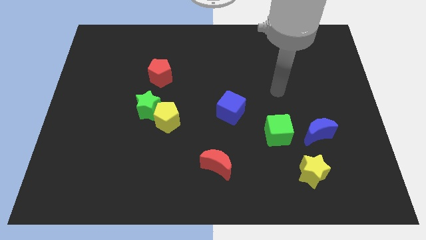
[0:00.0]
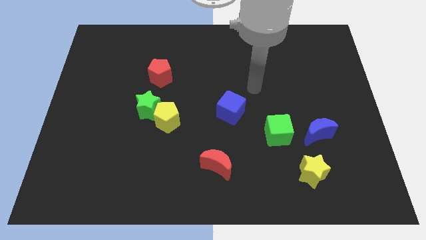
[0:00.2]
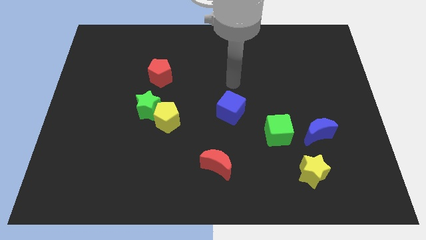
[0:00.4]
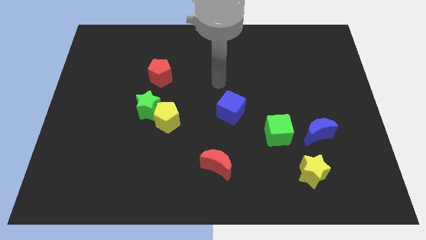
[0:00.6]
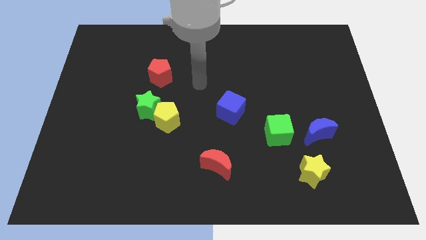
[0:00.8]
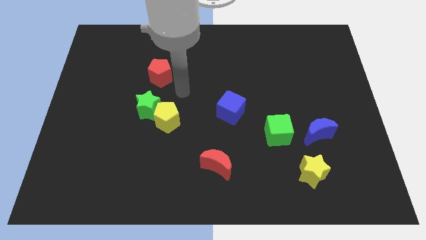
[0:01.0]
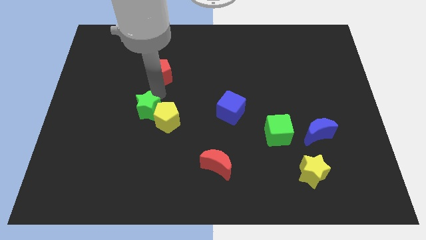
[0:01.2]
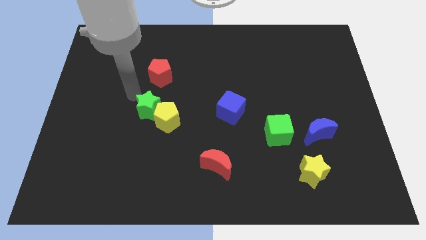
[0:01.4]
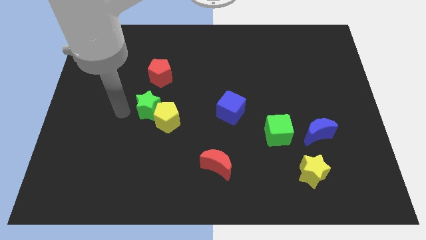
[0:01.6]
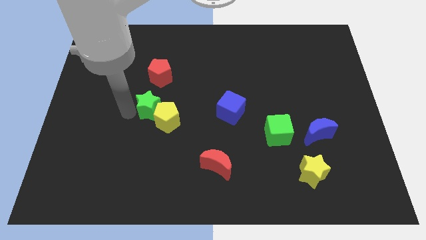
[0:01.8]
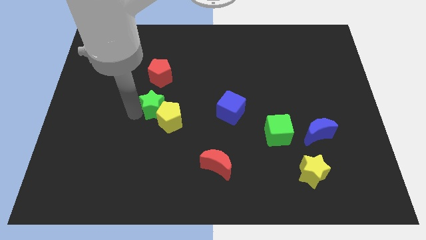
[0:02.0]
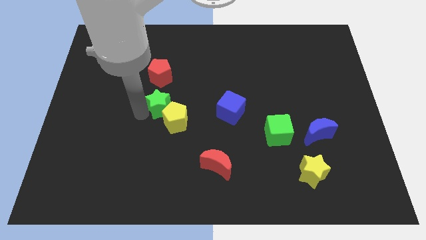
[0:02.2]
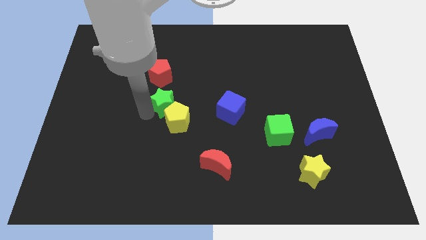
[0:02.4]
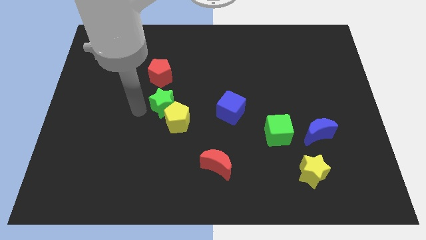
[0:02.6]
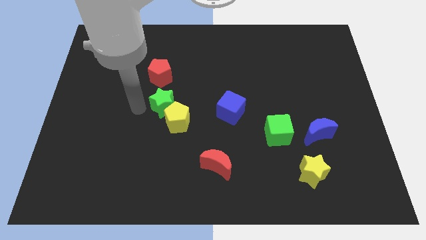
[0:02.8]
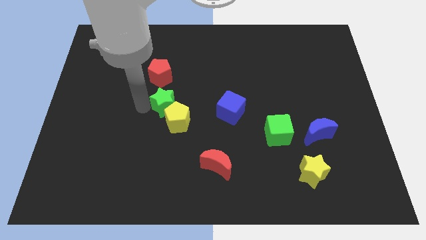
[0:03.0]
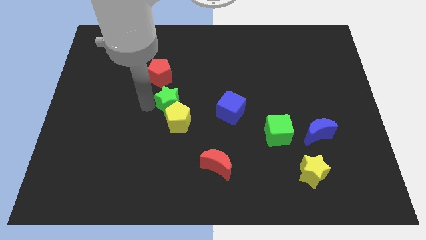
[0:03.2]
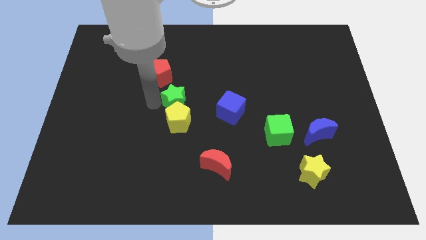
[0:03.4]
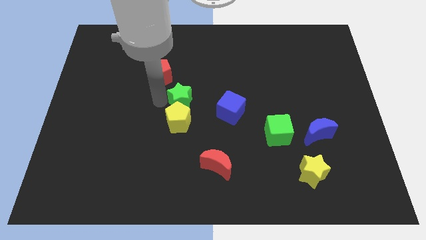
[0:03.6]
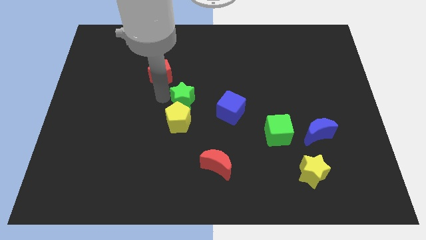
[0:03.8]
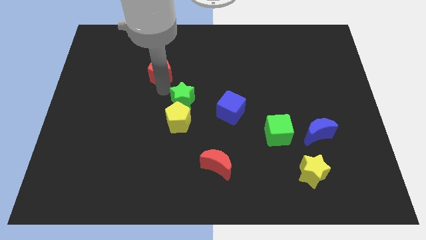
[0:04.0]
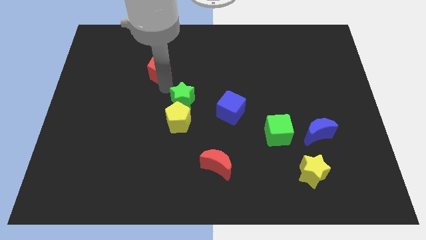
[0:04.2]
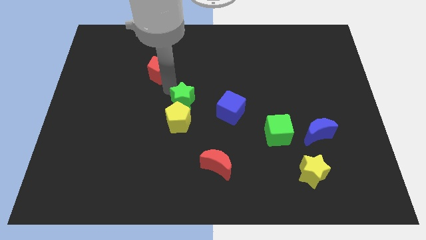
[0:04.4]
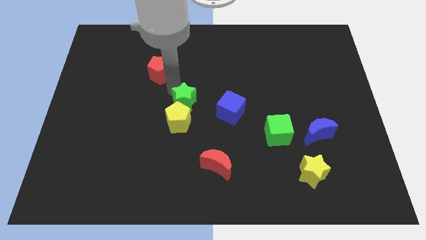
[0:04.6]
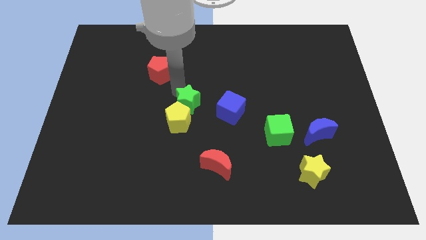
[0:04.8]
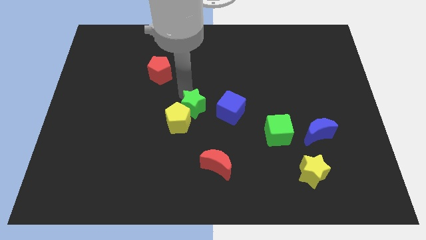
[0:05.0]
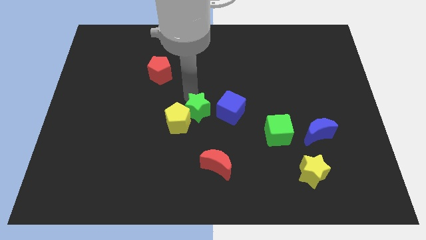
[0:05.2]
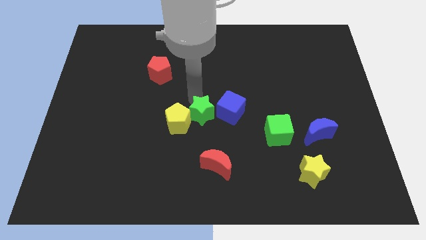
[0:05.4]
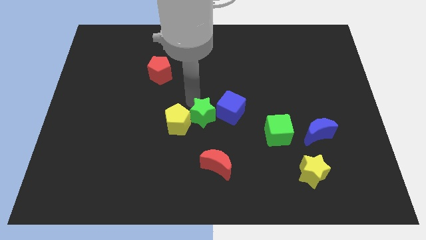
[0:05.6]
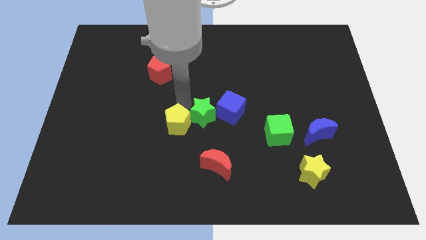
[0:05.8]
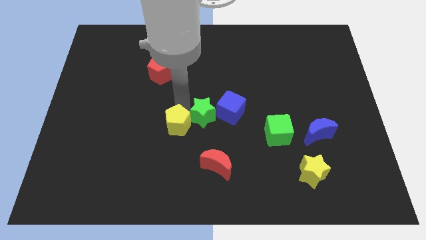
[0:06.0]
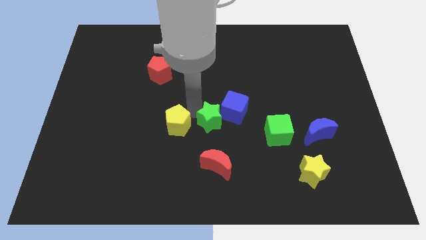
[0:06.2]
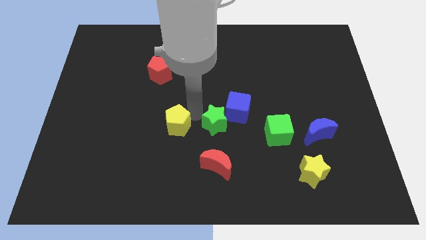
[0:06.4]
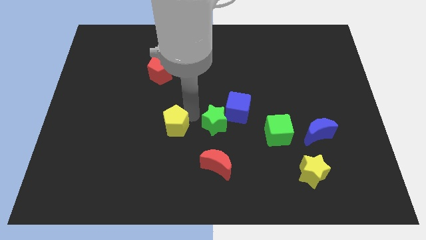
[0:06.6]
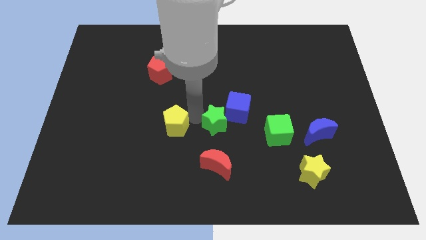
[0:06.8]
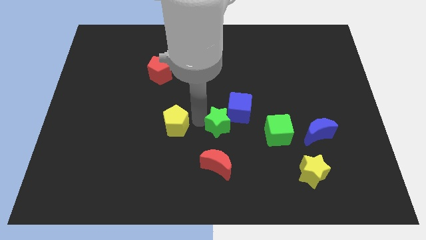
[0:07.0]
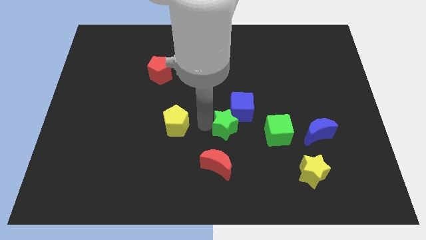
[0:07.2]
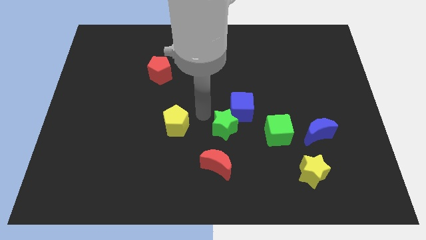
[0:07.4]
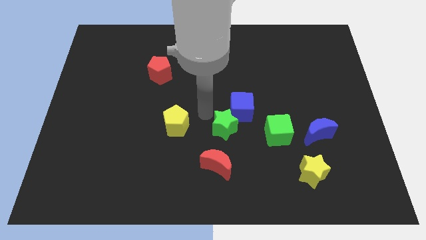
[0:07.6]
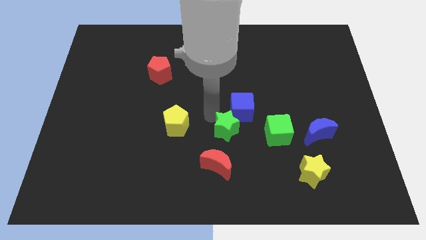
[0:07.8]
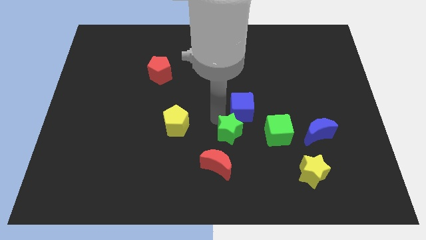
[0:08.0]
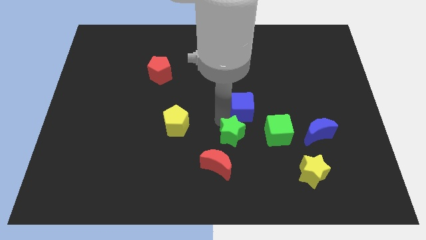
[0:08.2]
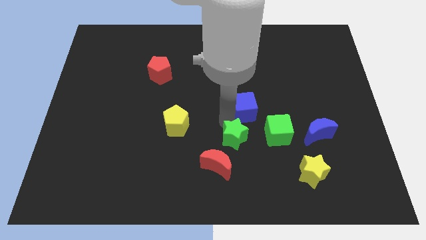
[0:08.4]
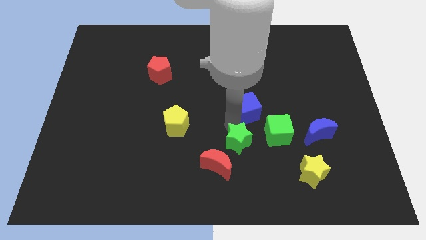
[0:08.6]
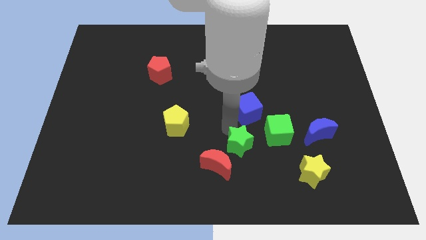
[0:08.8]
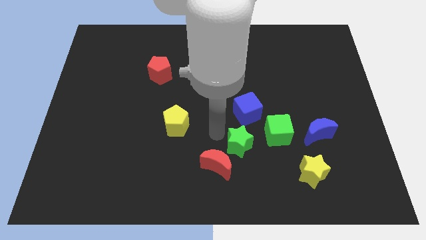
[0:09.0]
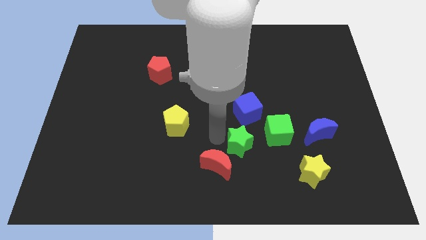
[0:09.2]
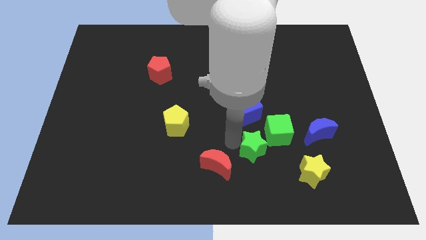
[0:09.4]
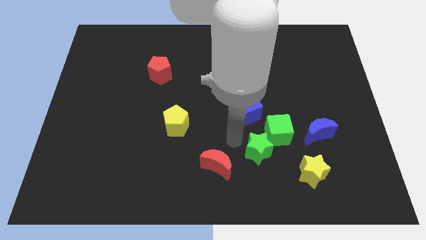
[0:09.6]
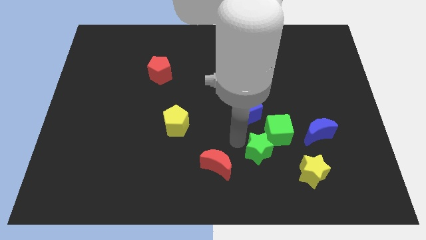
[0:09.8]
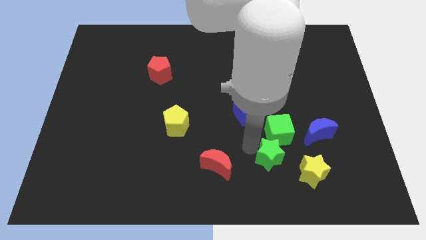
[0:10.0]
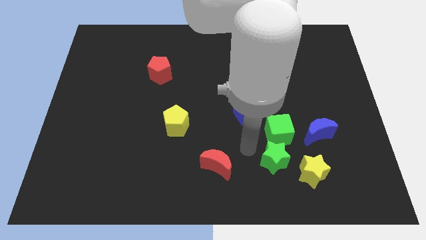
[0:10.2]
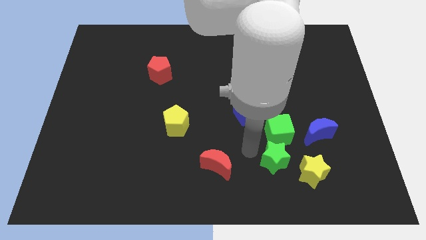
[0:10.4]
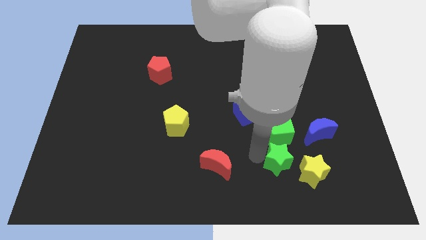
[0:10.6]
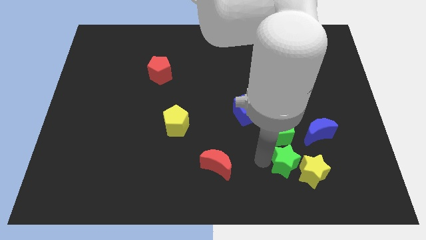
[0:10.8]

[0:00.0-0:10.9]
push the green star next to the yellow star

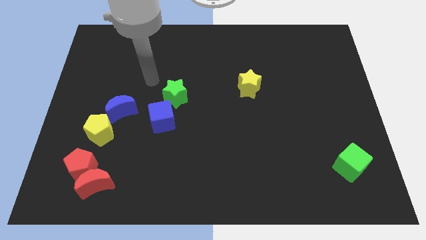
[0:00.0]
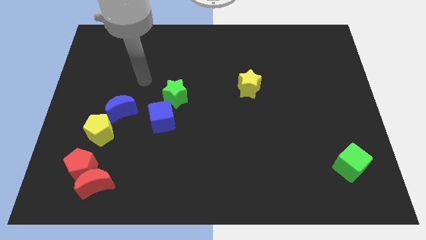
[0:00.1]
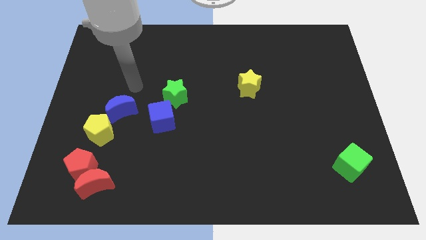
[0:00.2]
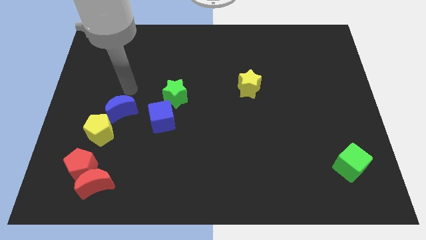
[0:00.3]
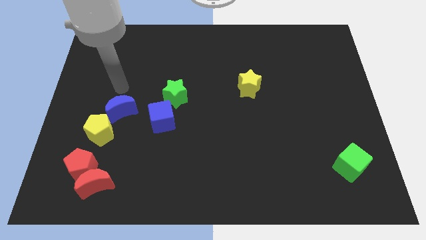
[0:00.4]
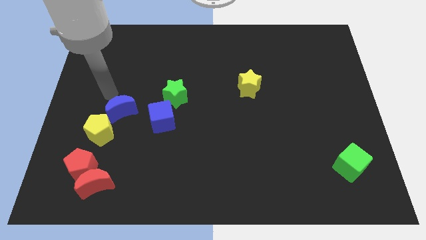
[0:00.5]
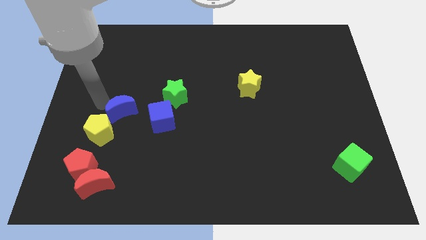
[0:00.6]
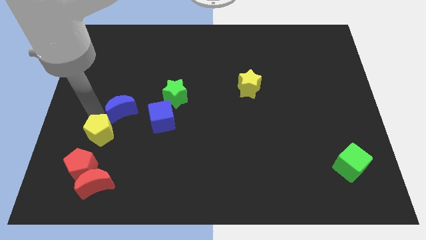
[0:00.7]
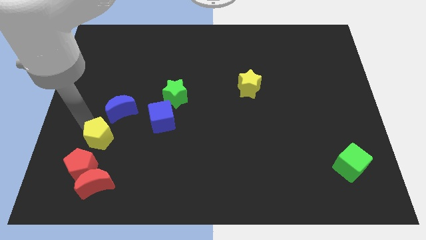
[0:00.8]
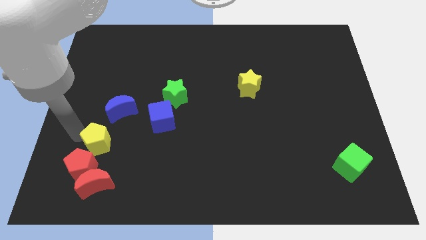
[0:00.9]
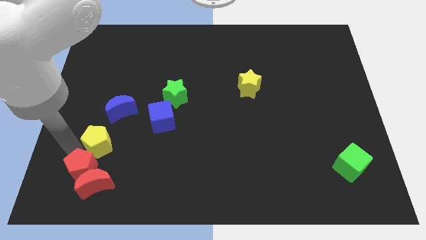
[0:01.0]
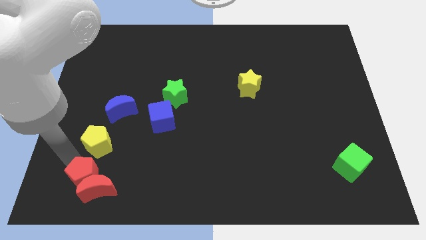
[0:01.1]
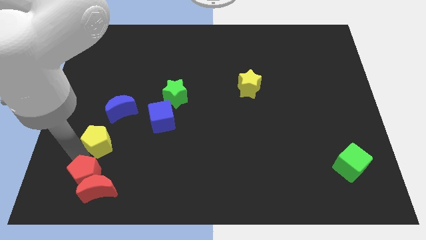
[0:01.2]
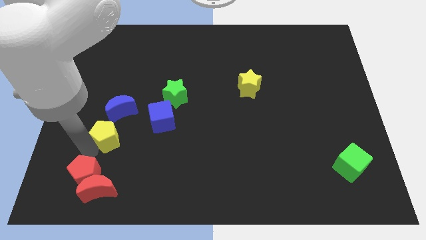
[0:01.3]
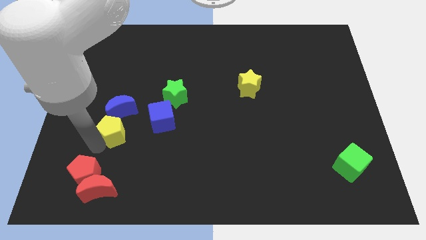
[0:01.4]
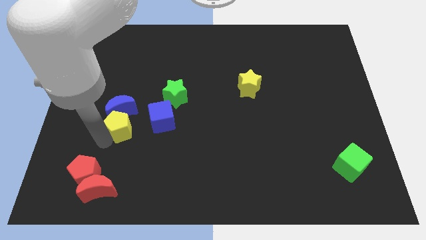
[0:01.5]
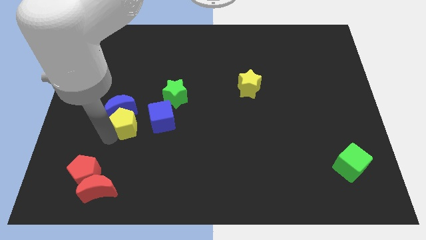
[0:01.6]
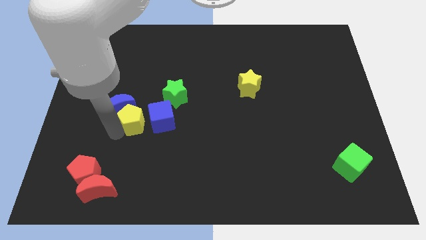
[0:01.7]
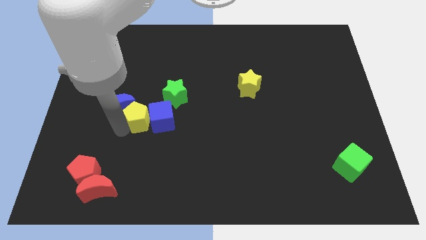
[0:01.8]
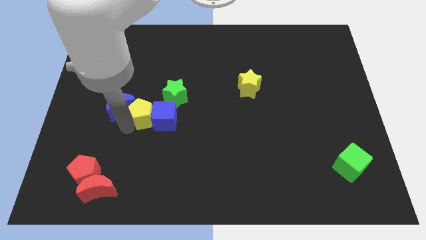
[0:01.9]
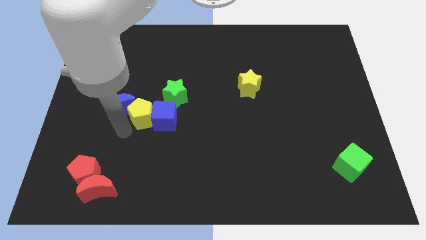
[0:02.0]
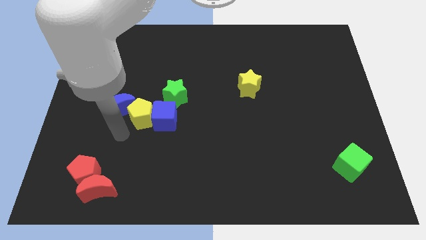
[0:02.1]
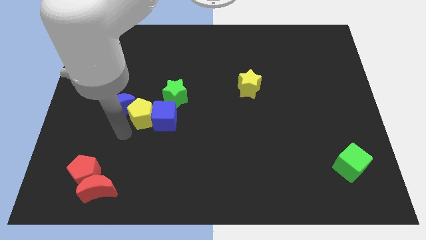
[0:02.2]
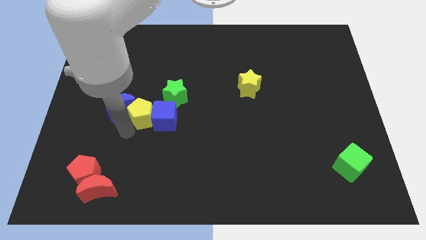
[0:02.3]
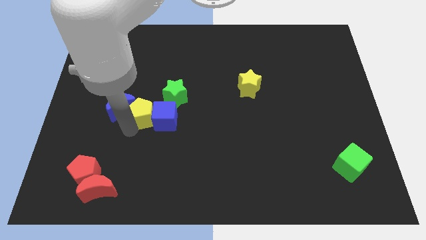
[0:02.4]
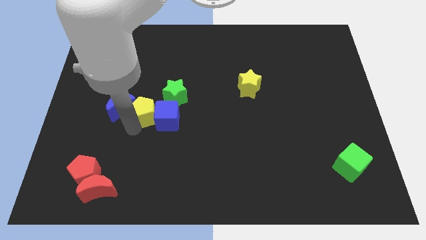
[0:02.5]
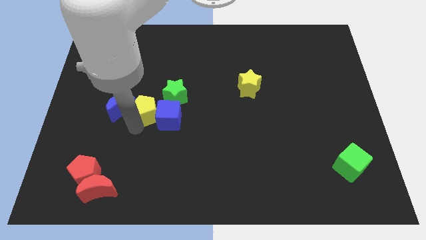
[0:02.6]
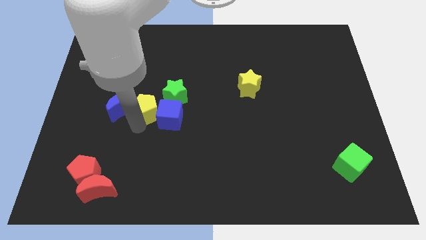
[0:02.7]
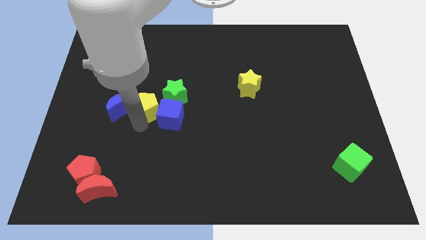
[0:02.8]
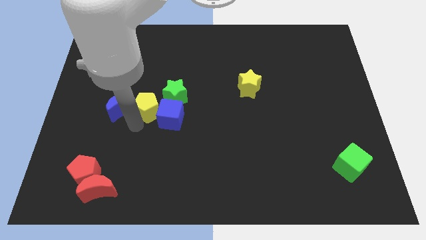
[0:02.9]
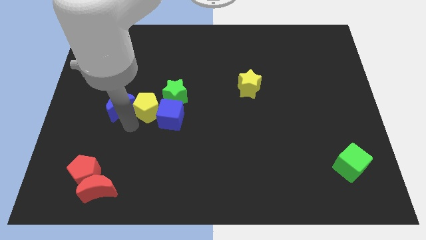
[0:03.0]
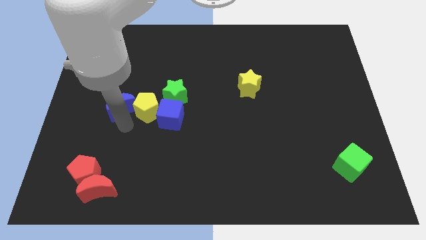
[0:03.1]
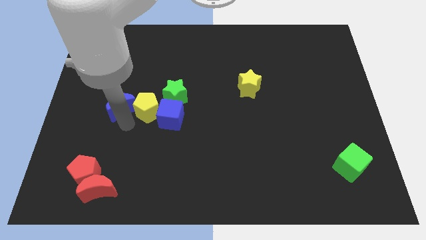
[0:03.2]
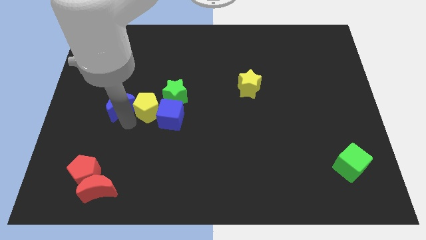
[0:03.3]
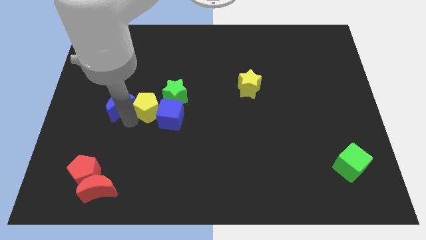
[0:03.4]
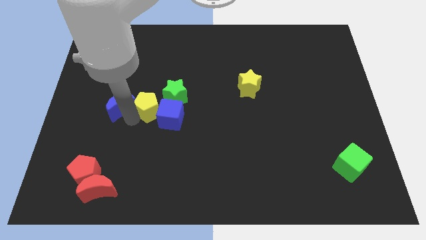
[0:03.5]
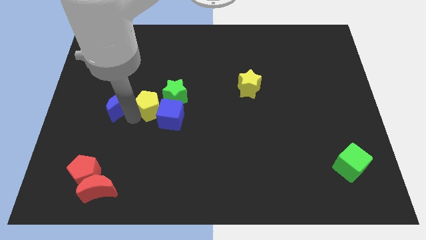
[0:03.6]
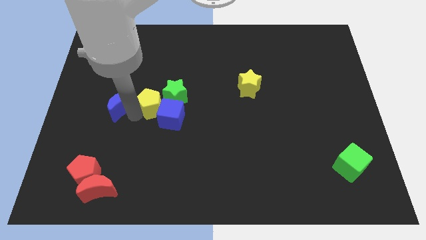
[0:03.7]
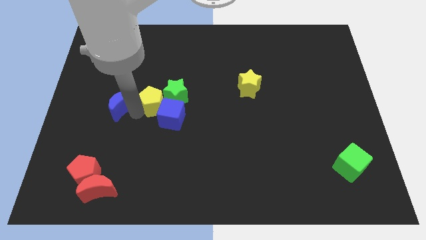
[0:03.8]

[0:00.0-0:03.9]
push the yellow pentagon towards the green star
